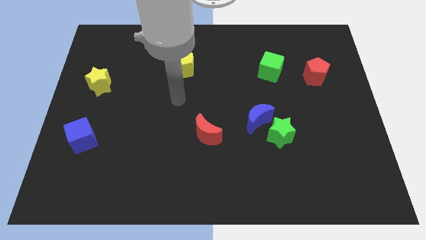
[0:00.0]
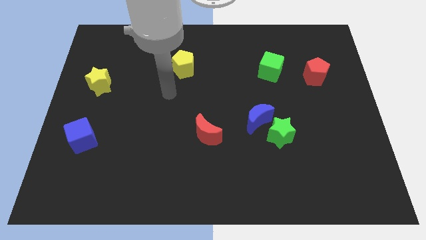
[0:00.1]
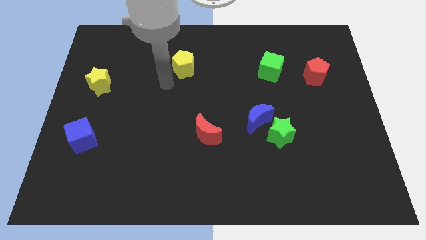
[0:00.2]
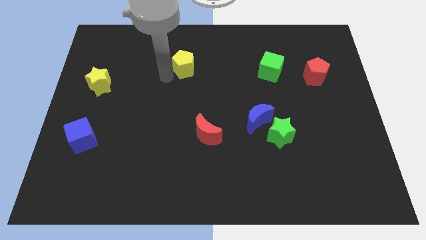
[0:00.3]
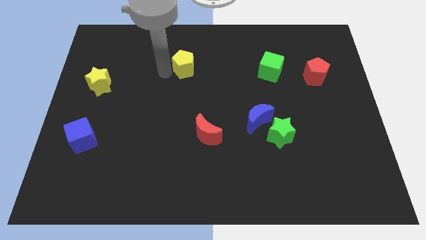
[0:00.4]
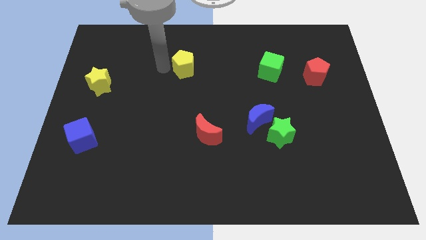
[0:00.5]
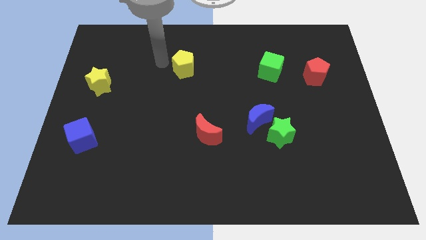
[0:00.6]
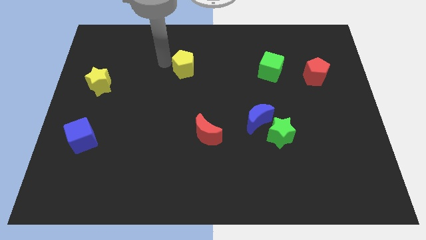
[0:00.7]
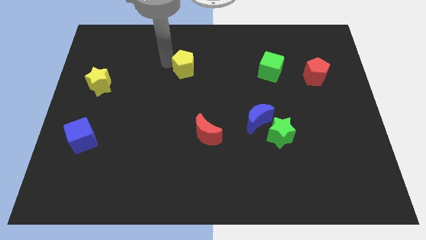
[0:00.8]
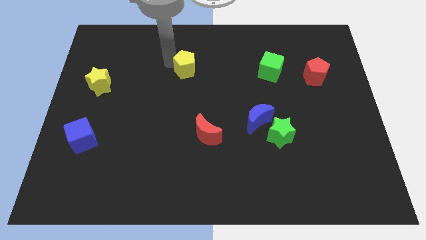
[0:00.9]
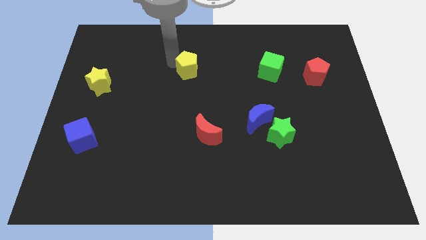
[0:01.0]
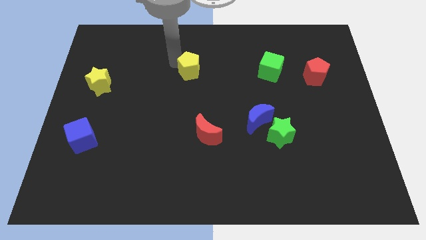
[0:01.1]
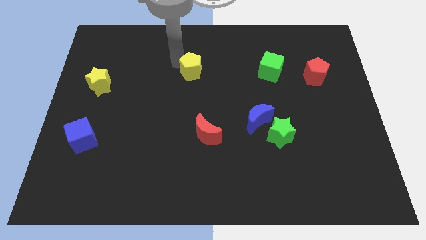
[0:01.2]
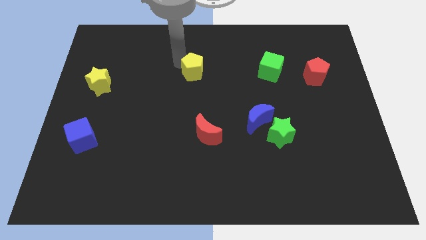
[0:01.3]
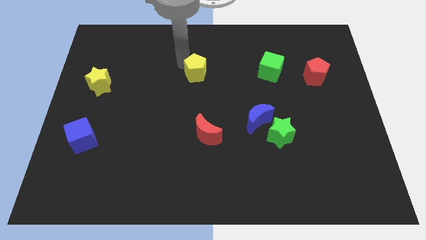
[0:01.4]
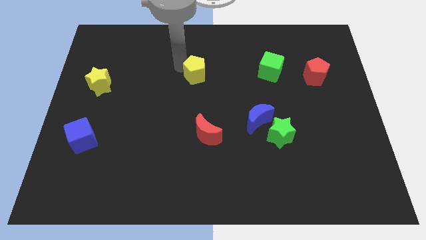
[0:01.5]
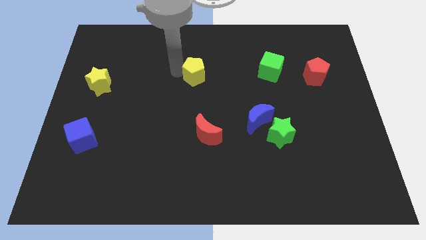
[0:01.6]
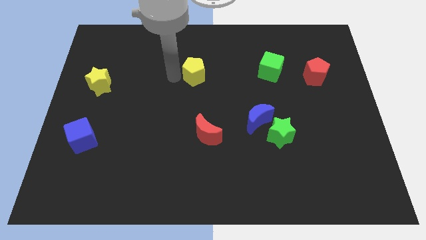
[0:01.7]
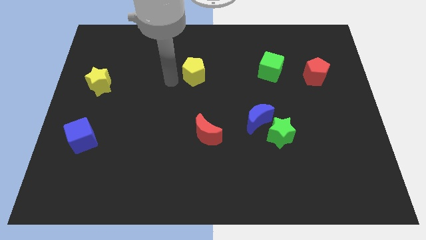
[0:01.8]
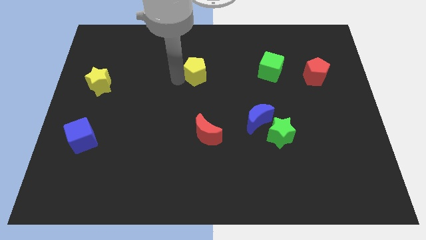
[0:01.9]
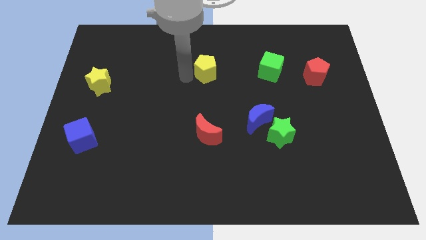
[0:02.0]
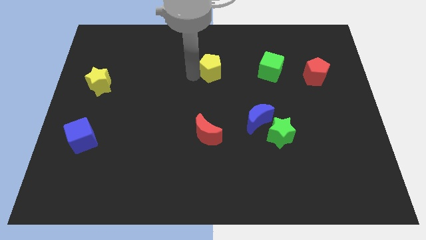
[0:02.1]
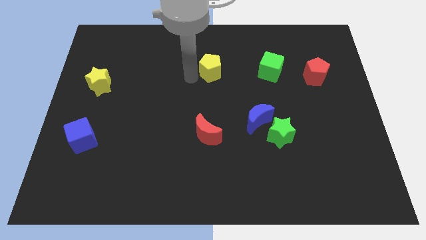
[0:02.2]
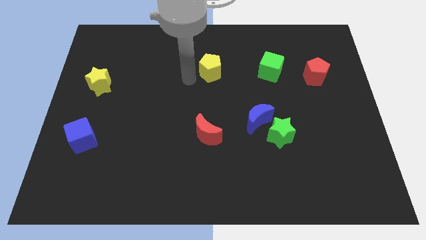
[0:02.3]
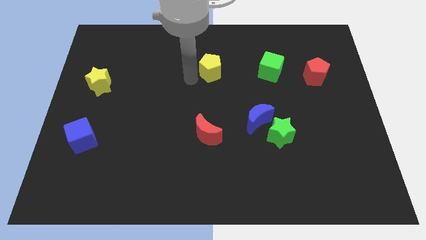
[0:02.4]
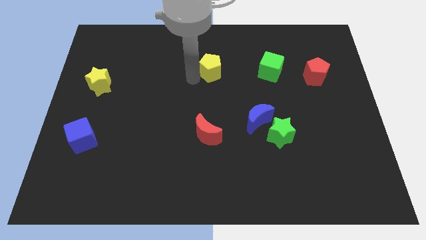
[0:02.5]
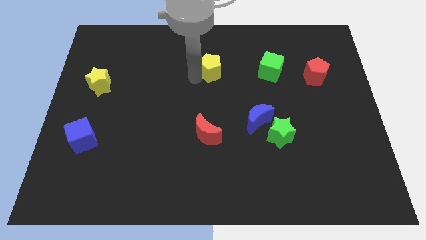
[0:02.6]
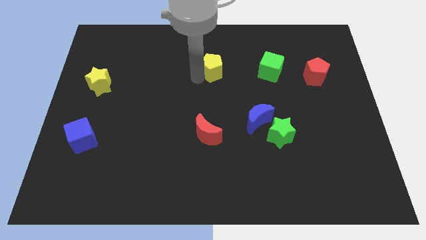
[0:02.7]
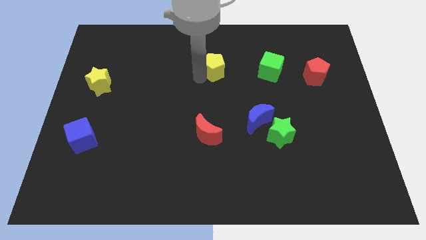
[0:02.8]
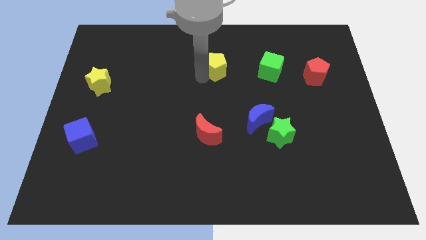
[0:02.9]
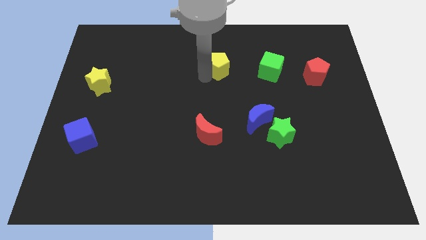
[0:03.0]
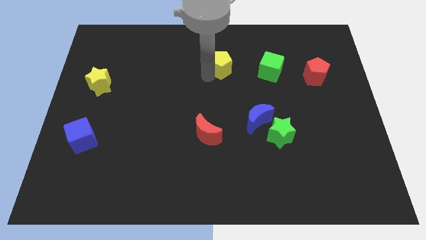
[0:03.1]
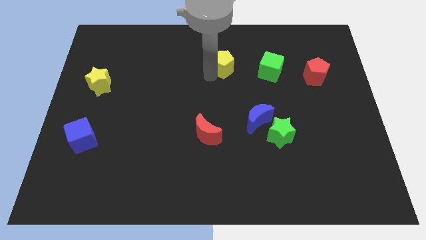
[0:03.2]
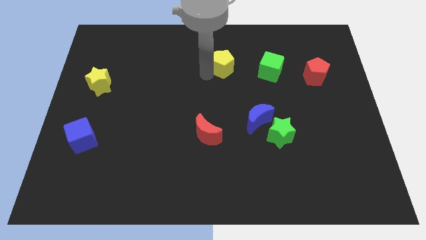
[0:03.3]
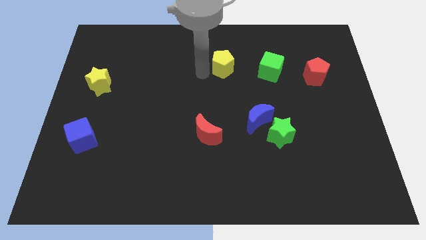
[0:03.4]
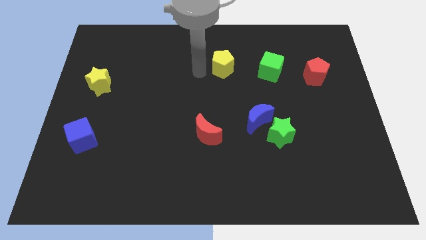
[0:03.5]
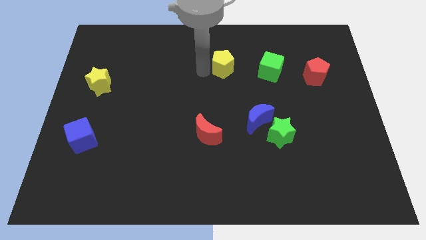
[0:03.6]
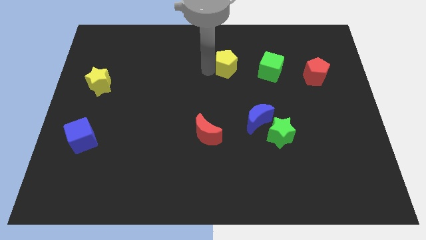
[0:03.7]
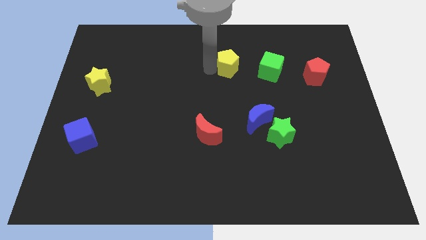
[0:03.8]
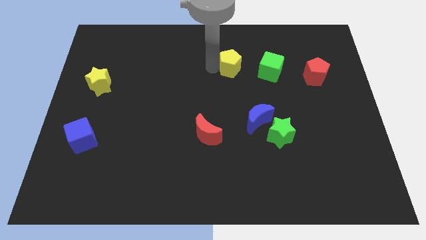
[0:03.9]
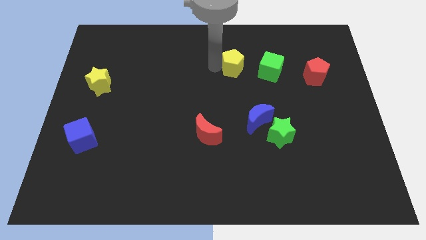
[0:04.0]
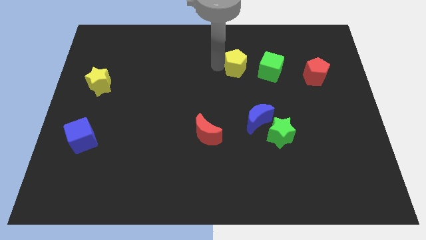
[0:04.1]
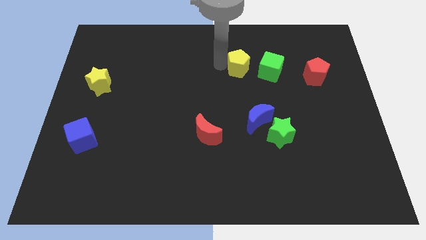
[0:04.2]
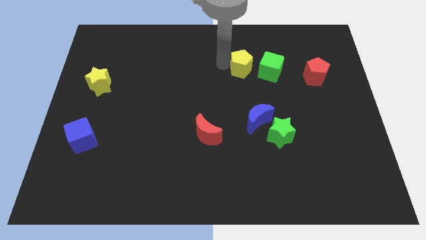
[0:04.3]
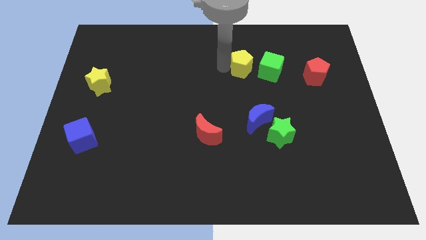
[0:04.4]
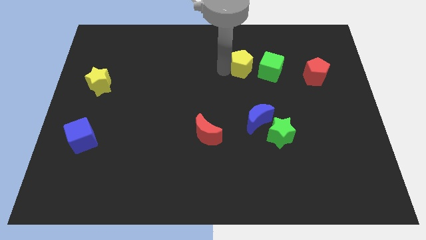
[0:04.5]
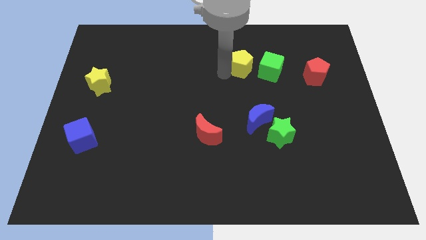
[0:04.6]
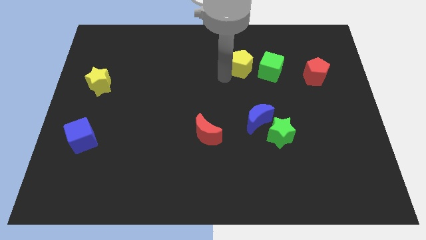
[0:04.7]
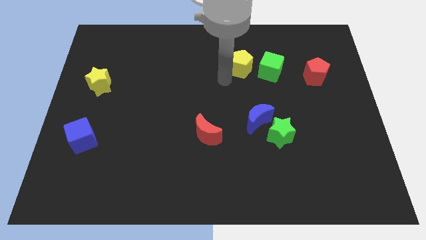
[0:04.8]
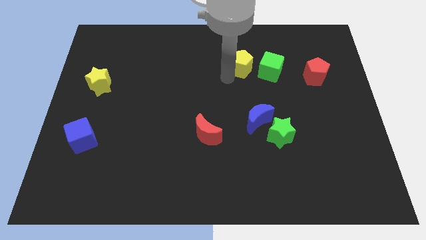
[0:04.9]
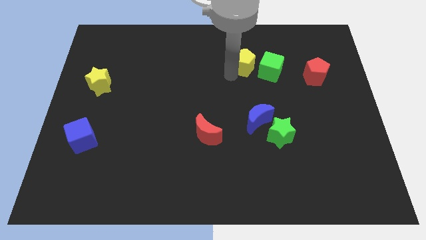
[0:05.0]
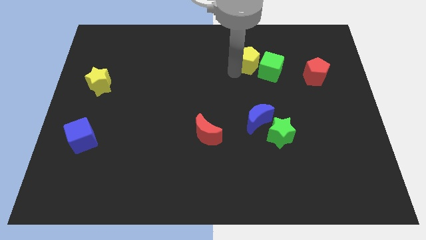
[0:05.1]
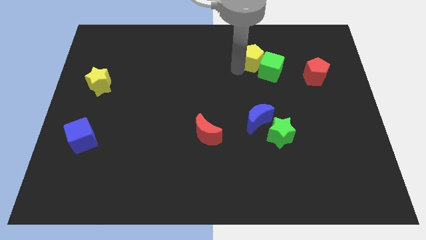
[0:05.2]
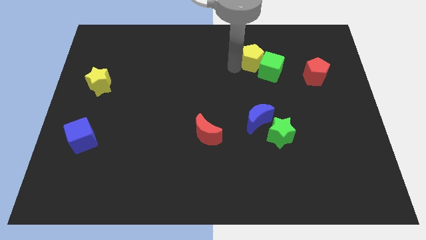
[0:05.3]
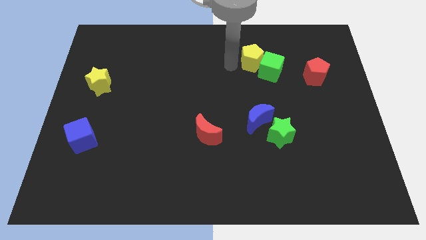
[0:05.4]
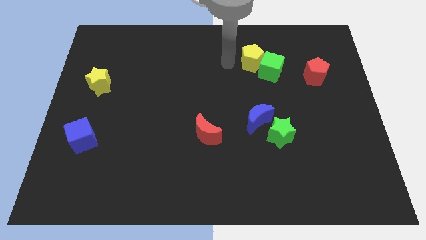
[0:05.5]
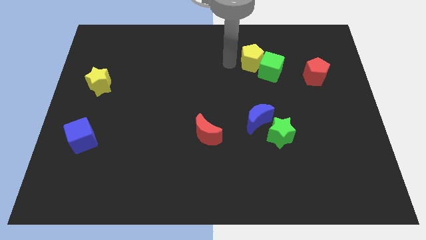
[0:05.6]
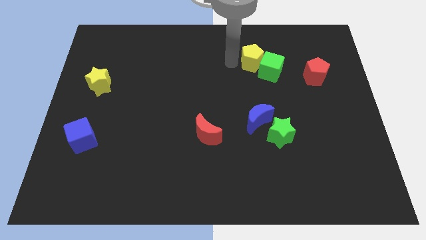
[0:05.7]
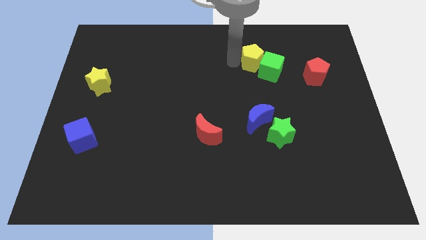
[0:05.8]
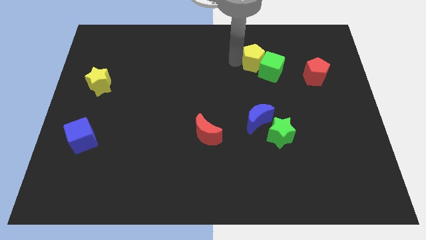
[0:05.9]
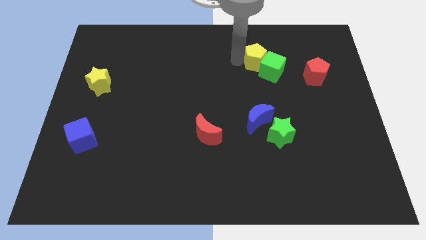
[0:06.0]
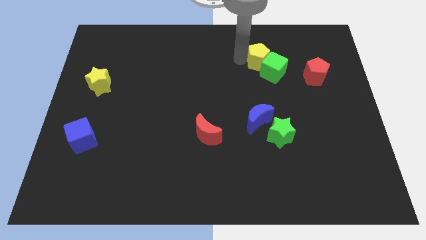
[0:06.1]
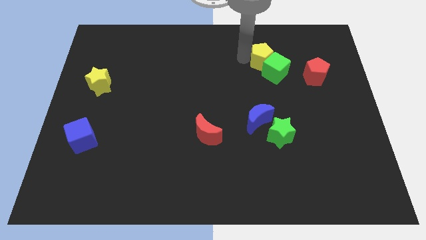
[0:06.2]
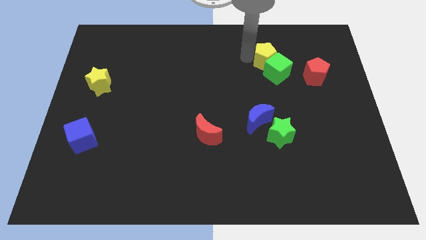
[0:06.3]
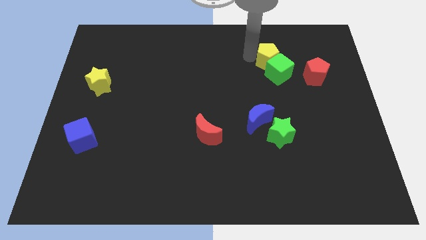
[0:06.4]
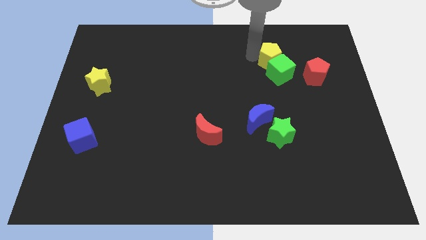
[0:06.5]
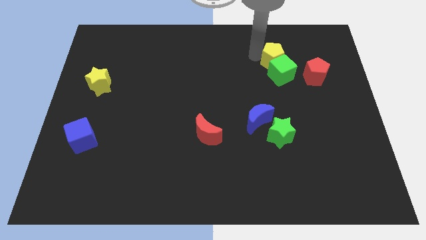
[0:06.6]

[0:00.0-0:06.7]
slide the yellow pentagon to the top left of the red pentagon
